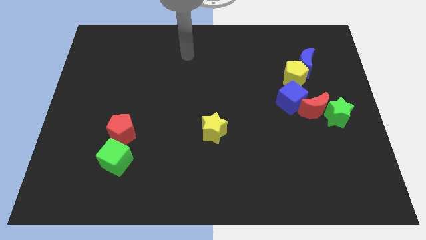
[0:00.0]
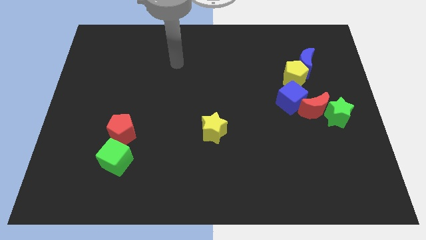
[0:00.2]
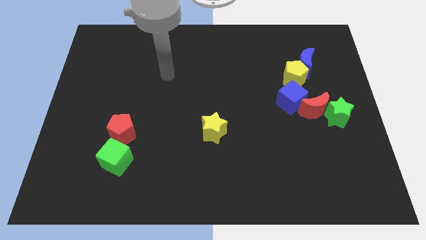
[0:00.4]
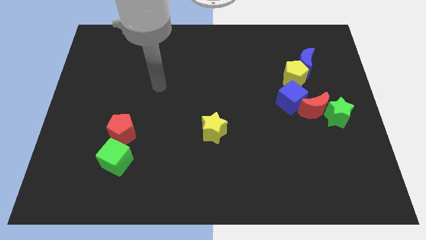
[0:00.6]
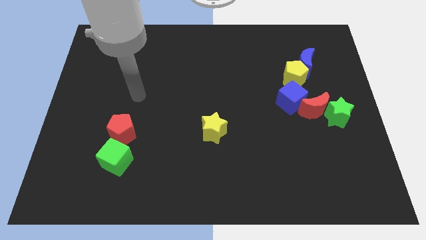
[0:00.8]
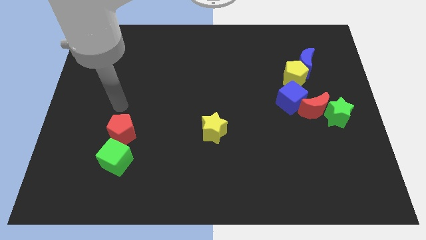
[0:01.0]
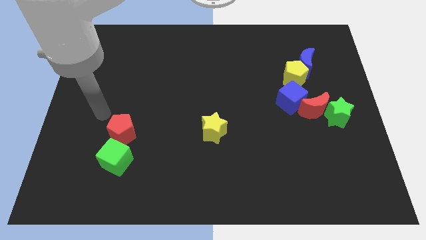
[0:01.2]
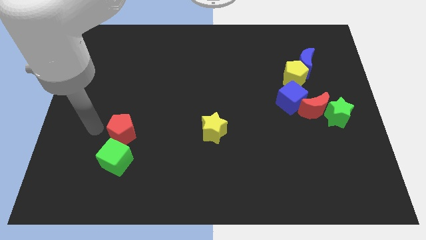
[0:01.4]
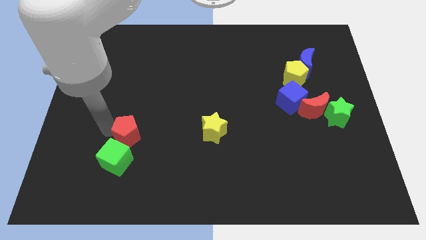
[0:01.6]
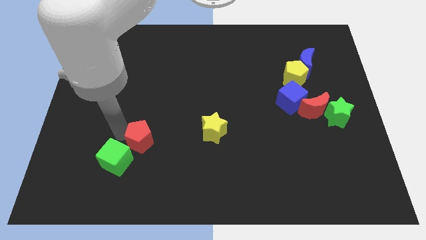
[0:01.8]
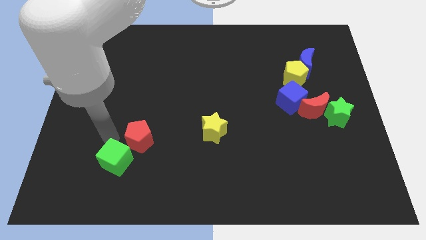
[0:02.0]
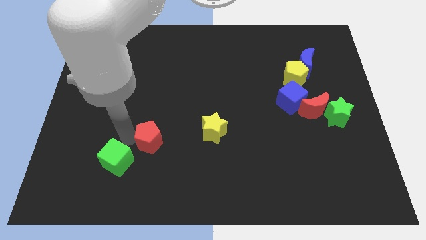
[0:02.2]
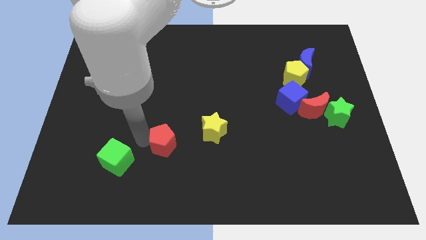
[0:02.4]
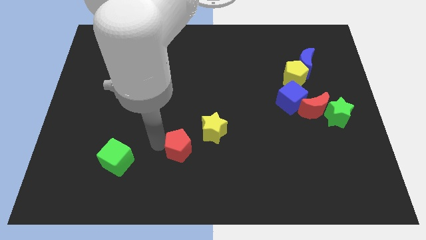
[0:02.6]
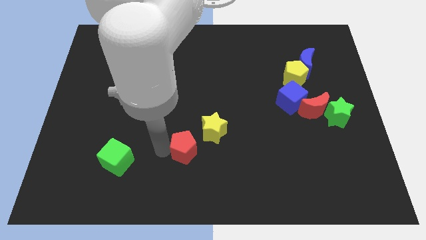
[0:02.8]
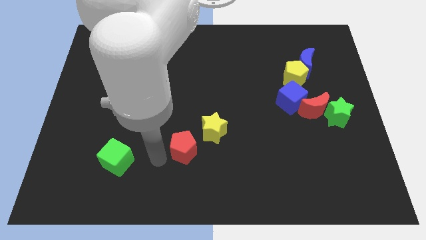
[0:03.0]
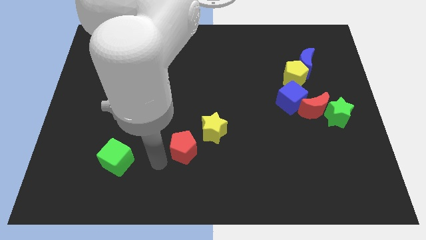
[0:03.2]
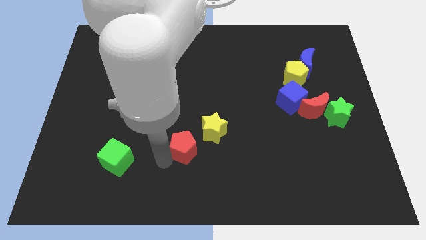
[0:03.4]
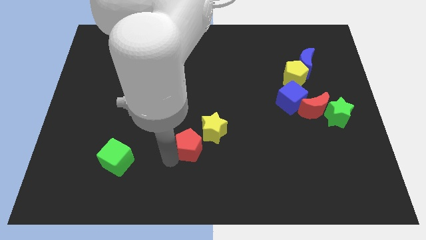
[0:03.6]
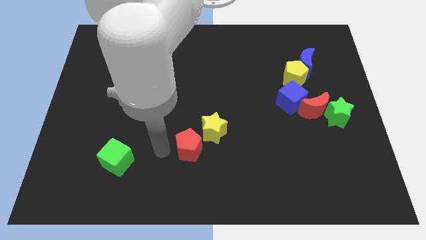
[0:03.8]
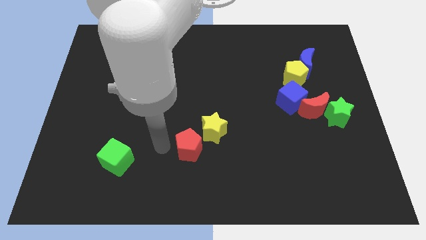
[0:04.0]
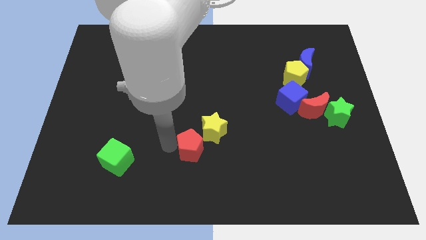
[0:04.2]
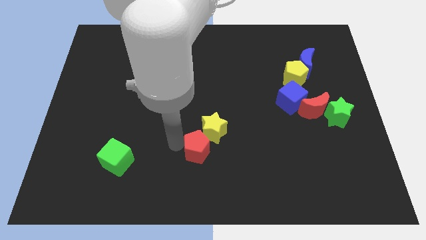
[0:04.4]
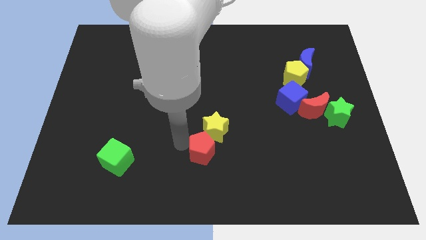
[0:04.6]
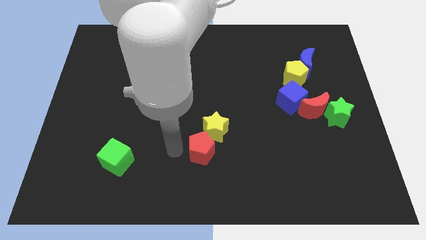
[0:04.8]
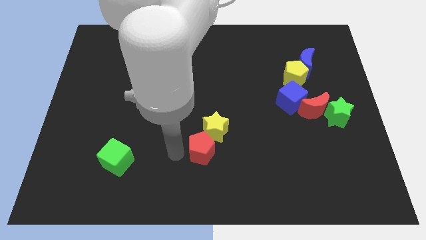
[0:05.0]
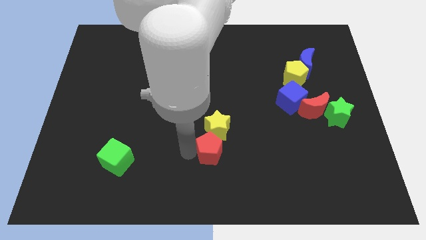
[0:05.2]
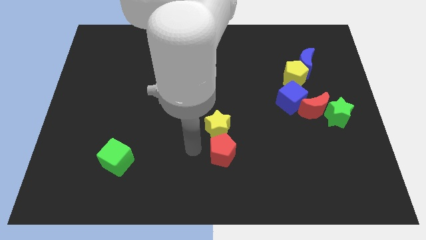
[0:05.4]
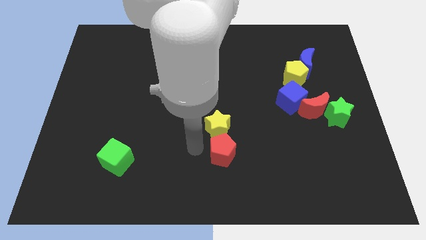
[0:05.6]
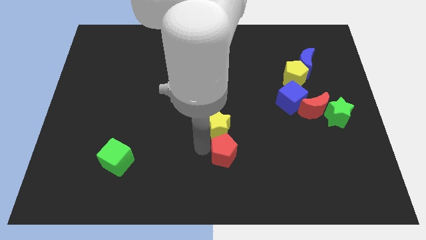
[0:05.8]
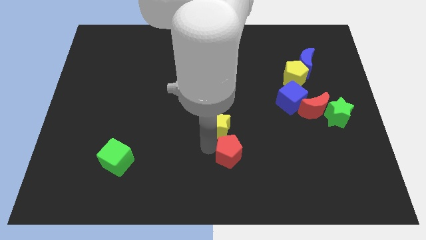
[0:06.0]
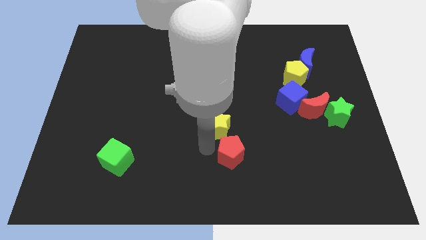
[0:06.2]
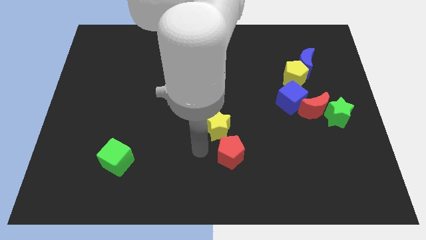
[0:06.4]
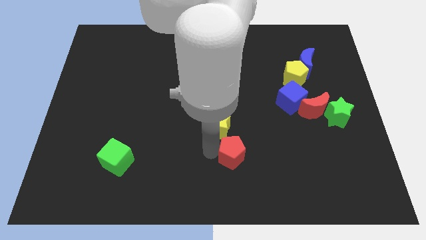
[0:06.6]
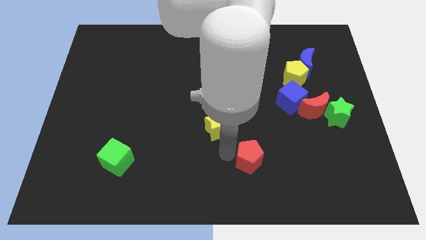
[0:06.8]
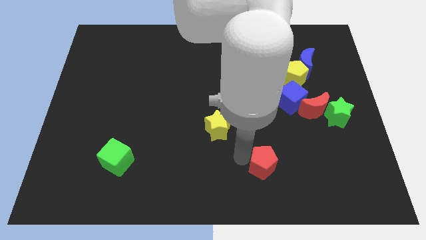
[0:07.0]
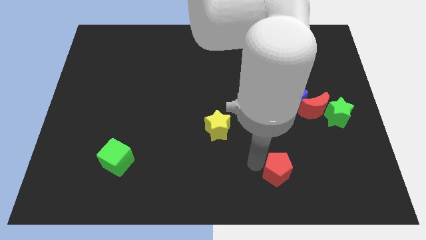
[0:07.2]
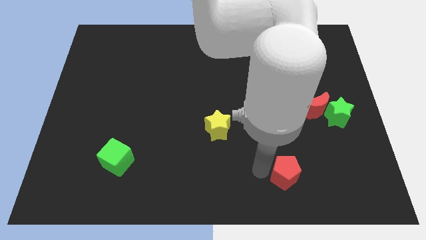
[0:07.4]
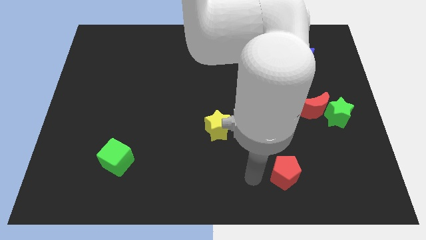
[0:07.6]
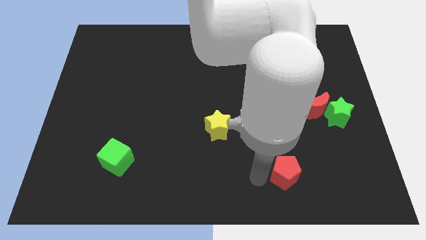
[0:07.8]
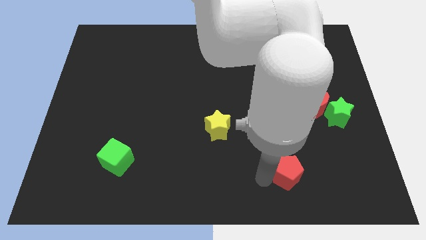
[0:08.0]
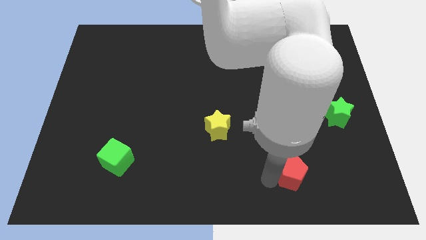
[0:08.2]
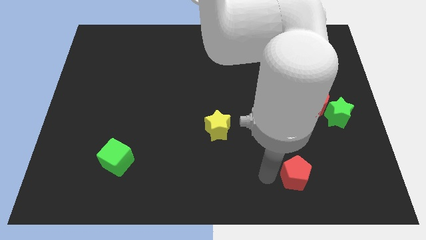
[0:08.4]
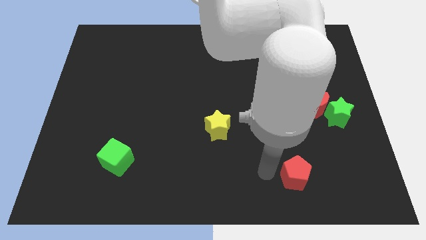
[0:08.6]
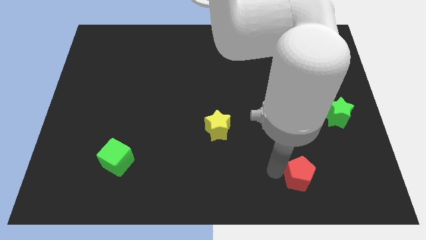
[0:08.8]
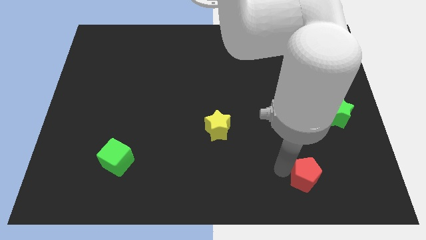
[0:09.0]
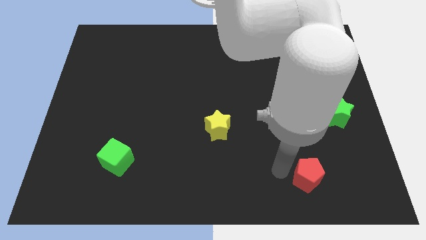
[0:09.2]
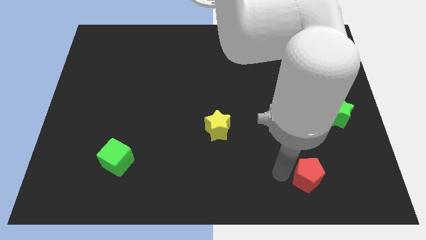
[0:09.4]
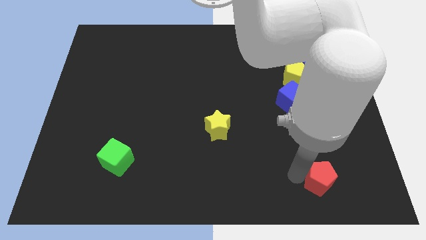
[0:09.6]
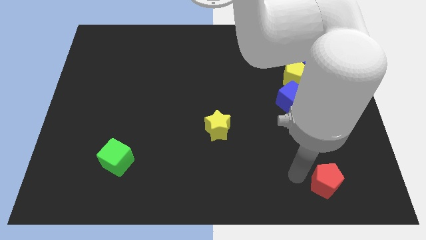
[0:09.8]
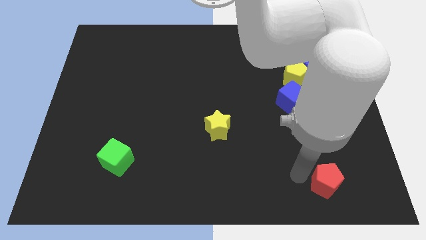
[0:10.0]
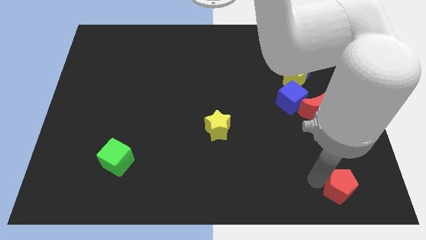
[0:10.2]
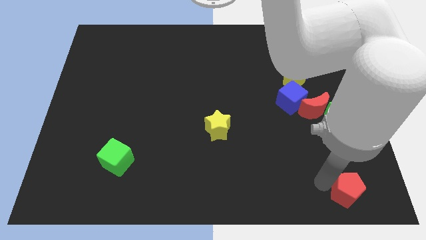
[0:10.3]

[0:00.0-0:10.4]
push the red pentagon to the lower right corner

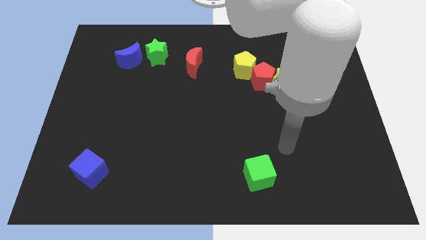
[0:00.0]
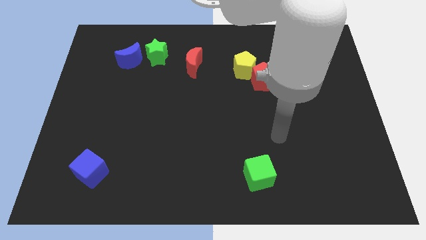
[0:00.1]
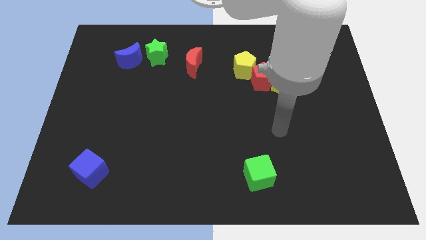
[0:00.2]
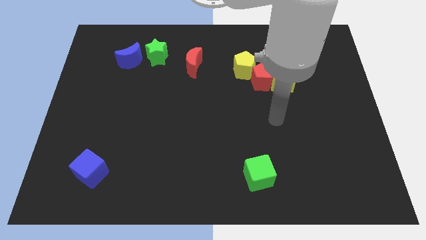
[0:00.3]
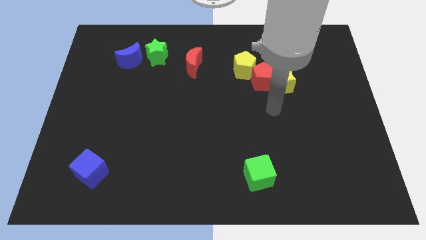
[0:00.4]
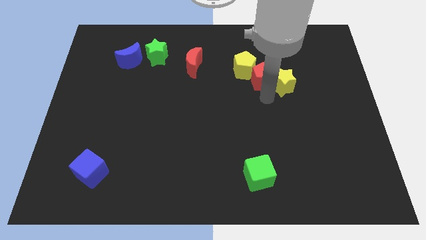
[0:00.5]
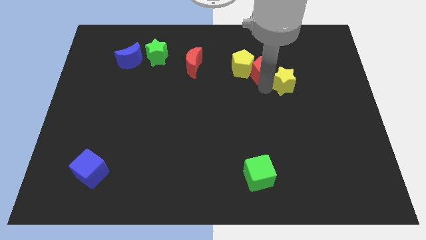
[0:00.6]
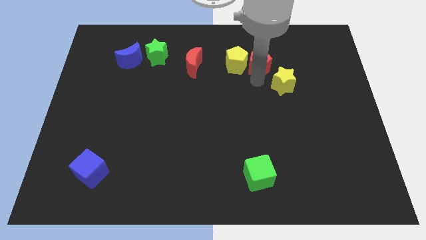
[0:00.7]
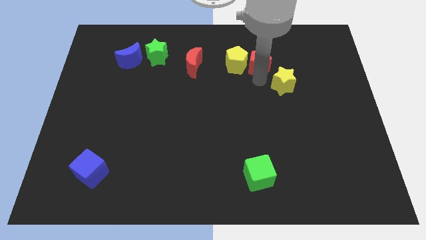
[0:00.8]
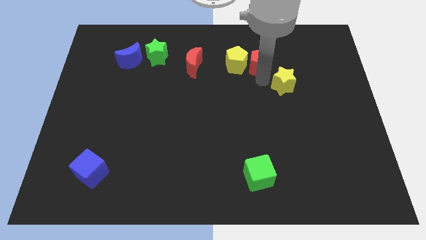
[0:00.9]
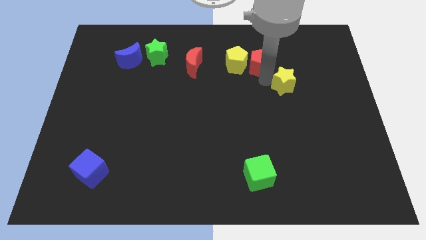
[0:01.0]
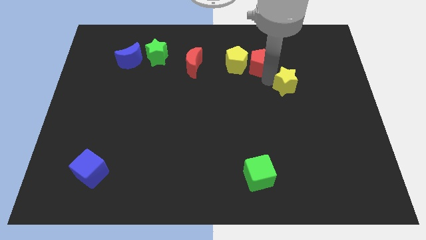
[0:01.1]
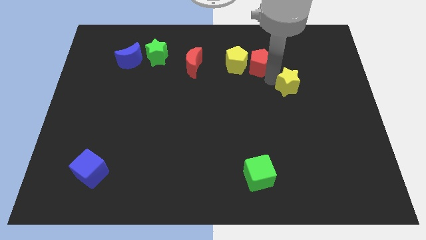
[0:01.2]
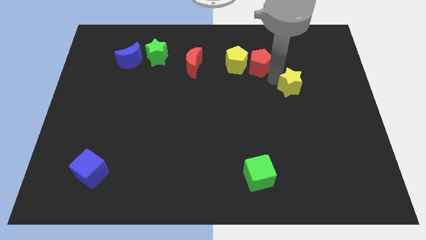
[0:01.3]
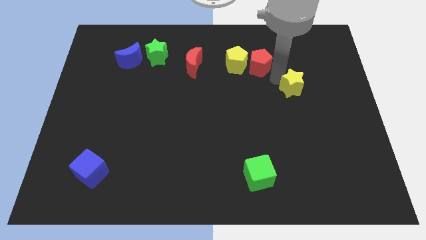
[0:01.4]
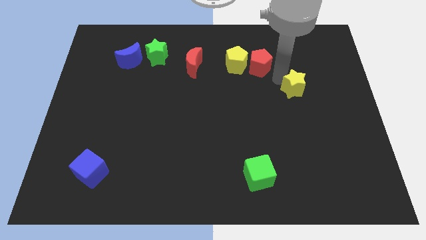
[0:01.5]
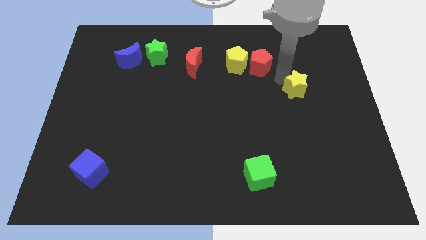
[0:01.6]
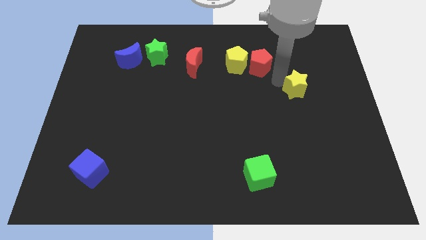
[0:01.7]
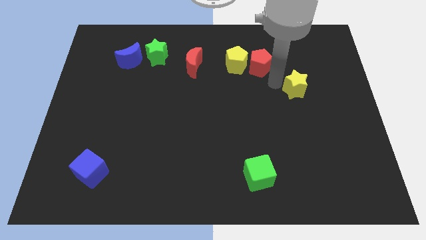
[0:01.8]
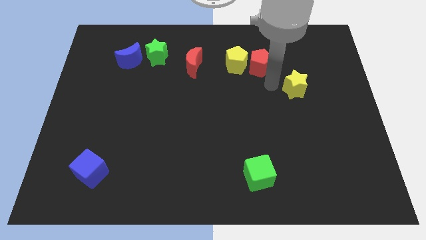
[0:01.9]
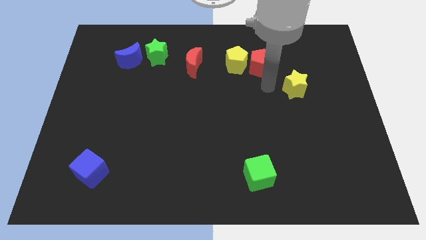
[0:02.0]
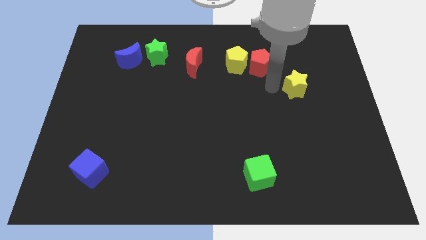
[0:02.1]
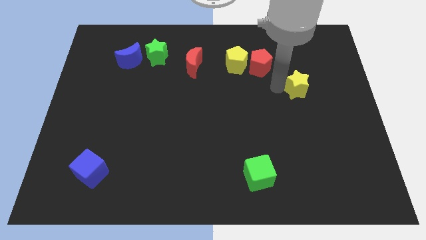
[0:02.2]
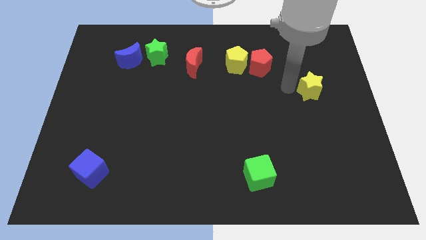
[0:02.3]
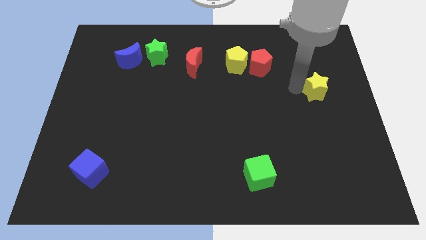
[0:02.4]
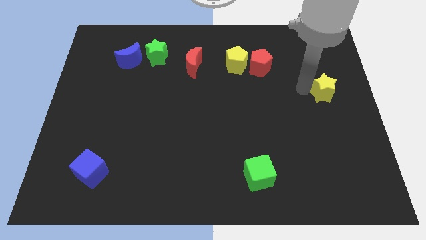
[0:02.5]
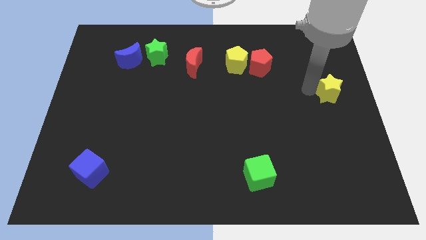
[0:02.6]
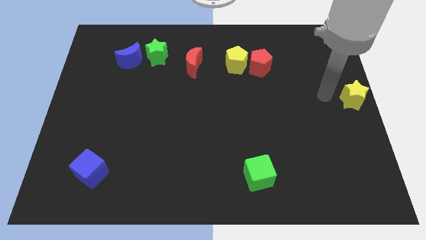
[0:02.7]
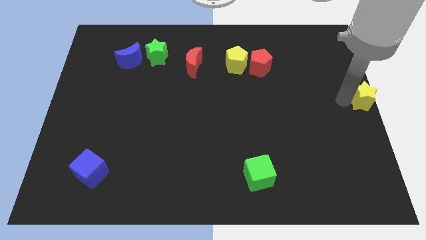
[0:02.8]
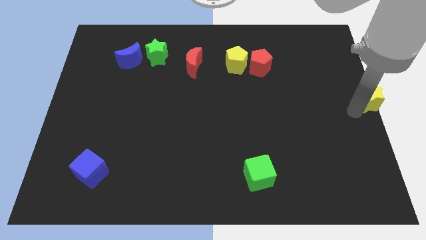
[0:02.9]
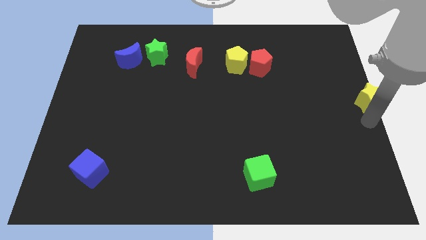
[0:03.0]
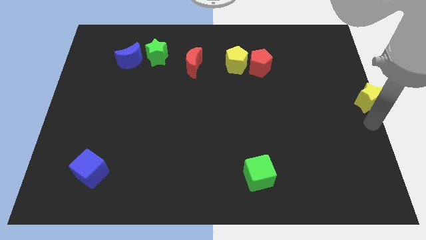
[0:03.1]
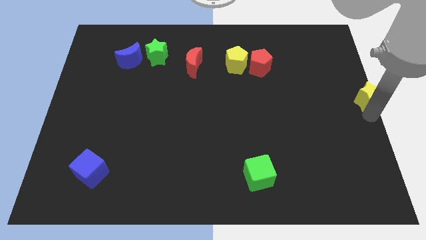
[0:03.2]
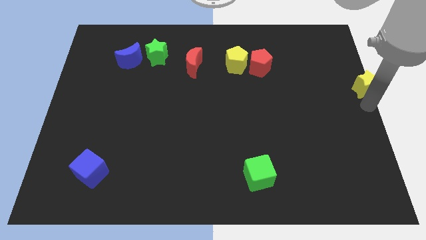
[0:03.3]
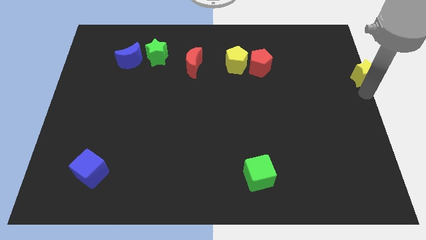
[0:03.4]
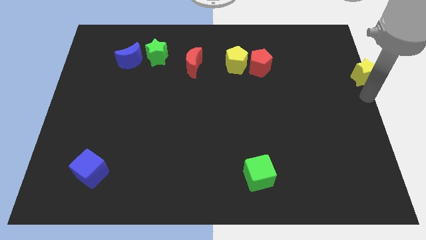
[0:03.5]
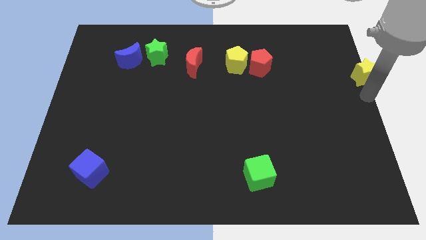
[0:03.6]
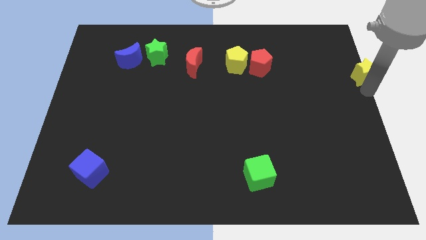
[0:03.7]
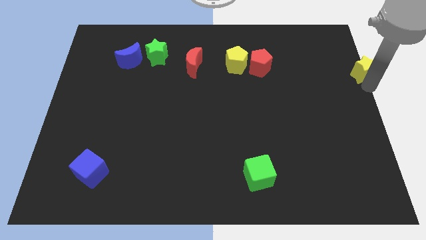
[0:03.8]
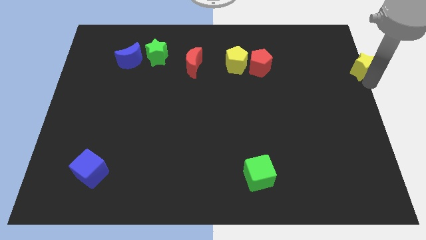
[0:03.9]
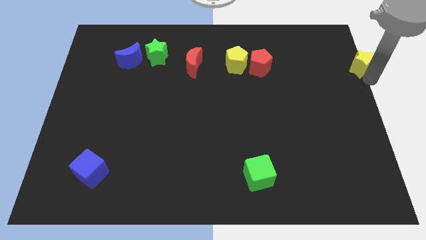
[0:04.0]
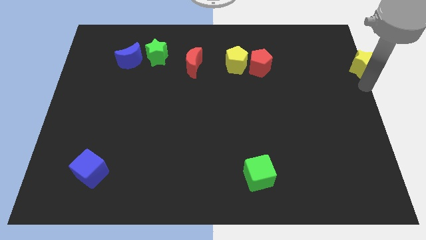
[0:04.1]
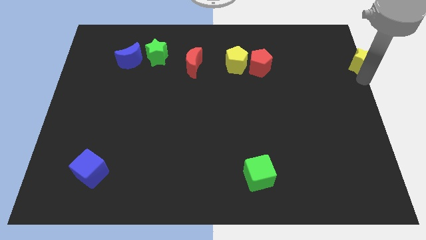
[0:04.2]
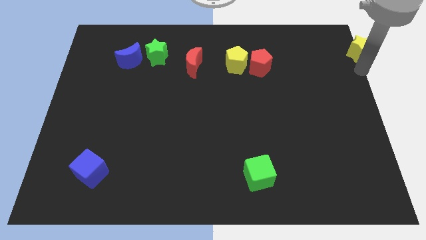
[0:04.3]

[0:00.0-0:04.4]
put the yellow star to the upper right corner
